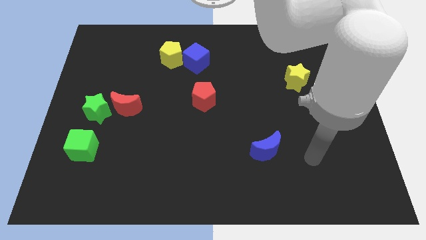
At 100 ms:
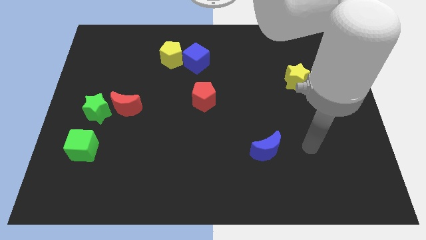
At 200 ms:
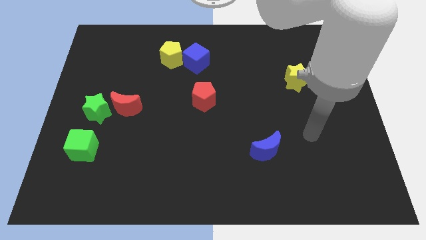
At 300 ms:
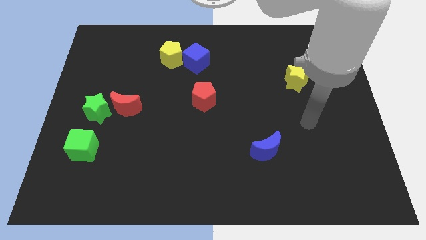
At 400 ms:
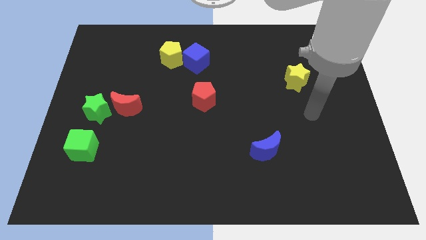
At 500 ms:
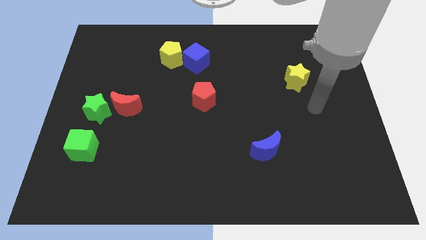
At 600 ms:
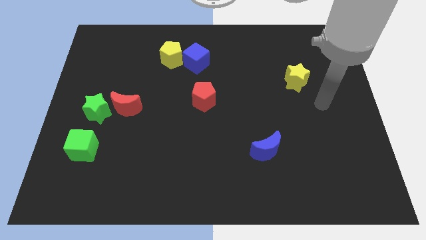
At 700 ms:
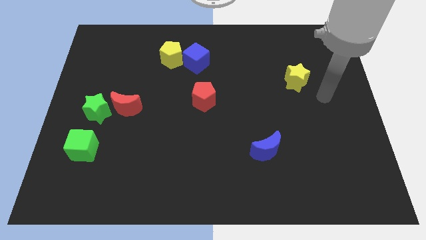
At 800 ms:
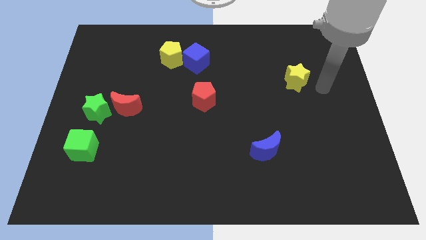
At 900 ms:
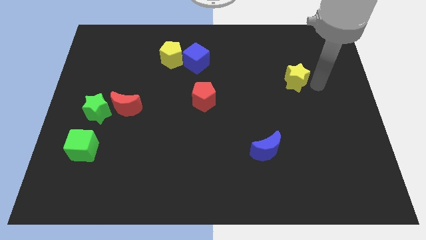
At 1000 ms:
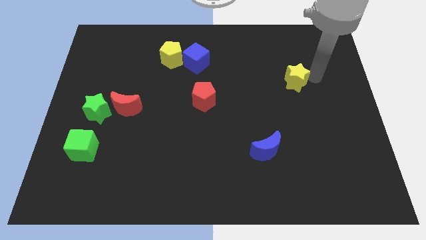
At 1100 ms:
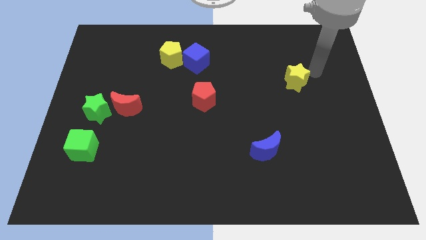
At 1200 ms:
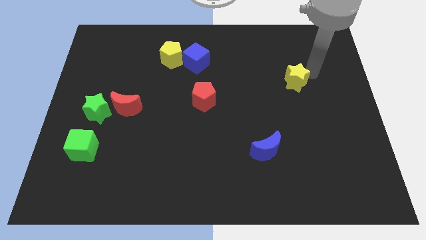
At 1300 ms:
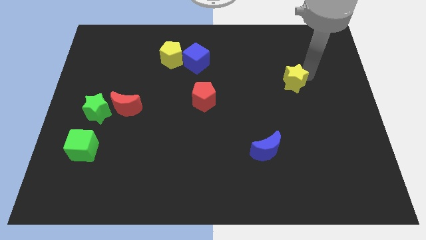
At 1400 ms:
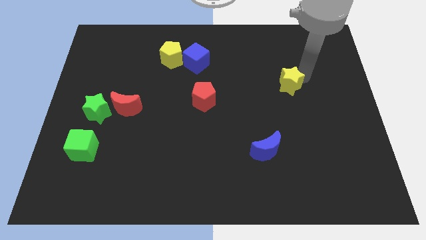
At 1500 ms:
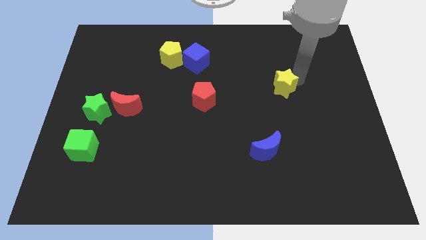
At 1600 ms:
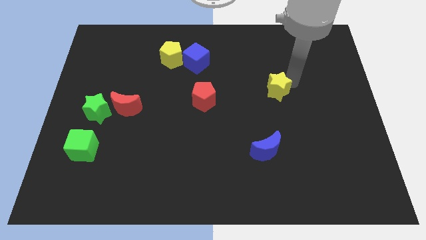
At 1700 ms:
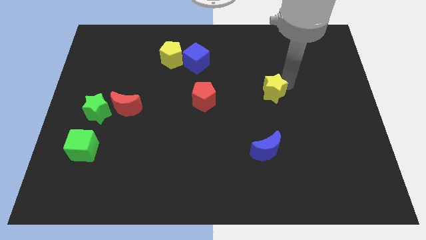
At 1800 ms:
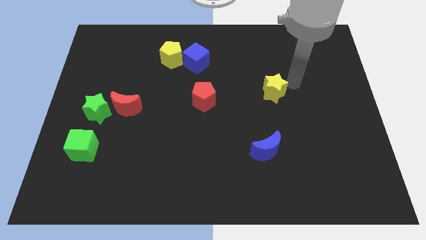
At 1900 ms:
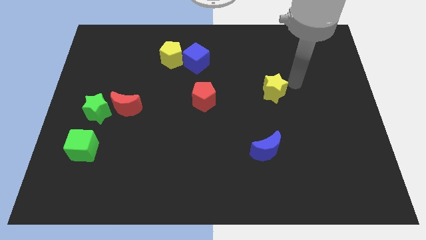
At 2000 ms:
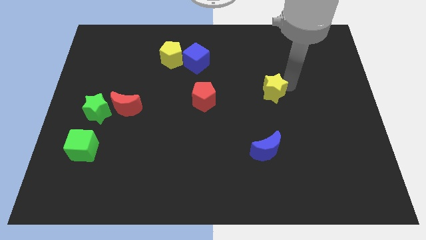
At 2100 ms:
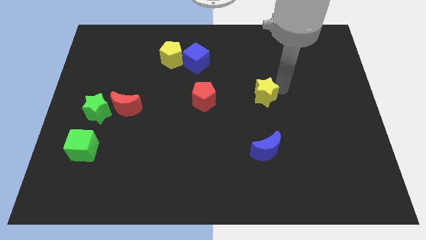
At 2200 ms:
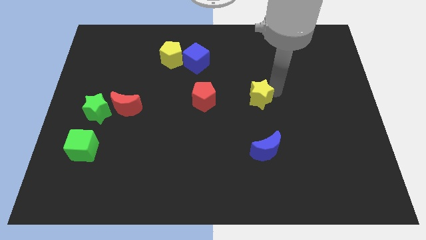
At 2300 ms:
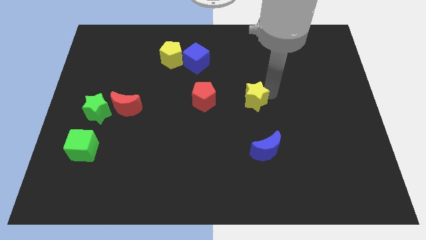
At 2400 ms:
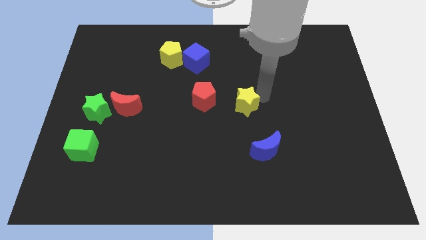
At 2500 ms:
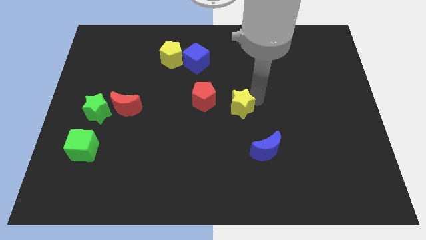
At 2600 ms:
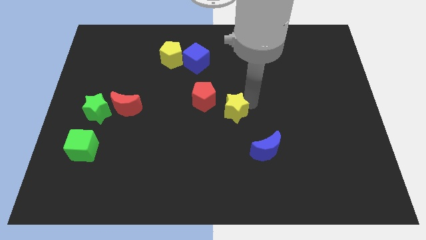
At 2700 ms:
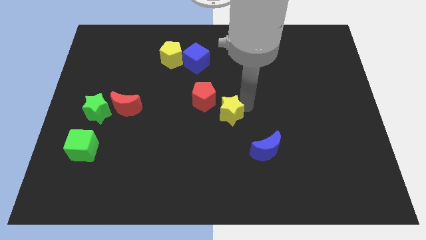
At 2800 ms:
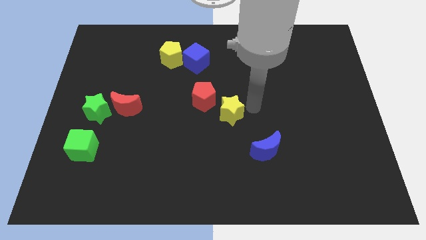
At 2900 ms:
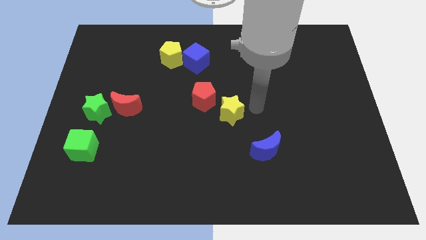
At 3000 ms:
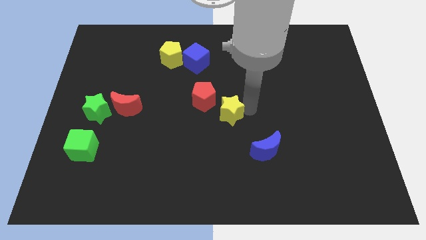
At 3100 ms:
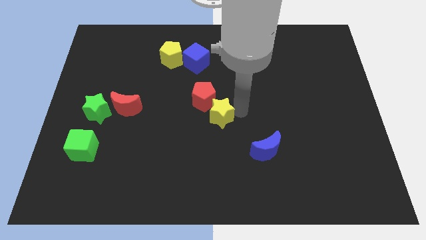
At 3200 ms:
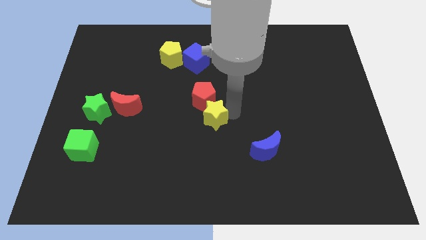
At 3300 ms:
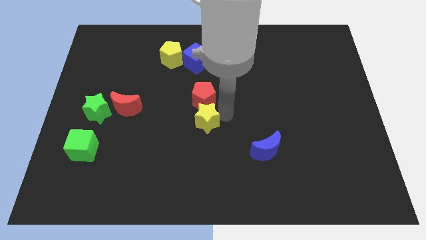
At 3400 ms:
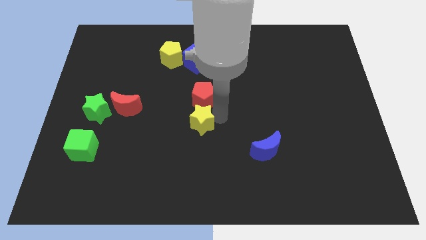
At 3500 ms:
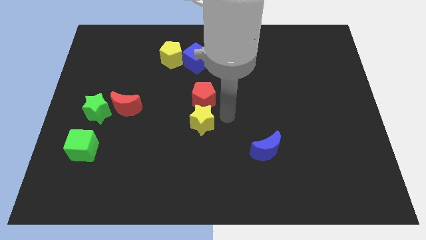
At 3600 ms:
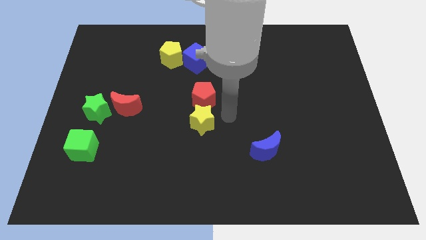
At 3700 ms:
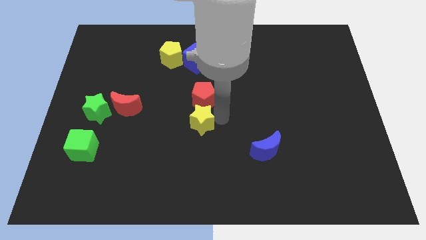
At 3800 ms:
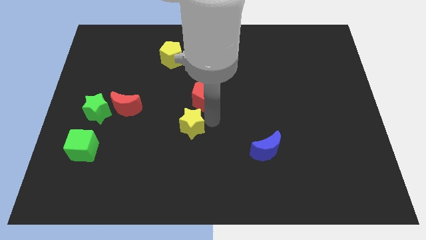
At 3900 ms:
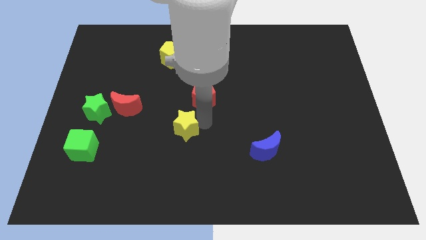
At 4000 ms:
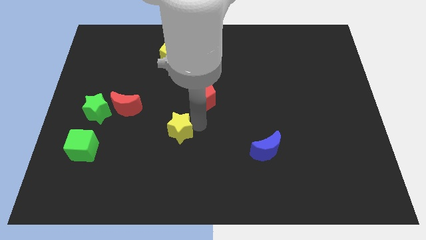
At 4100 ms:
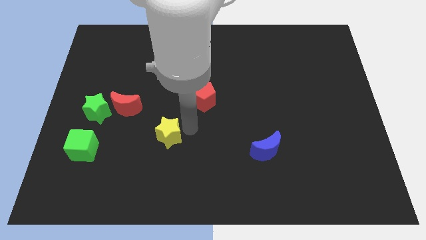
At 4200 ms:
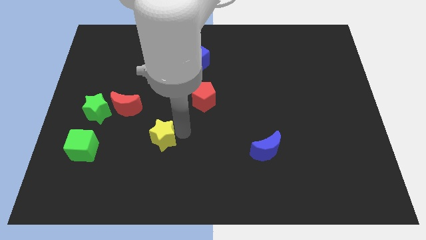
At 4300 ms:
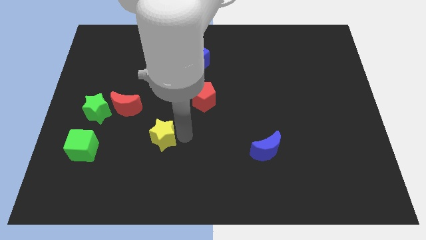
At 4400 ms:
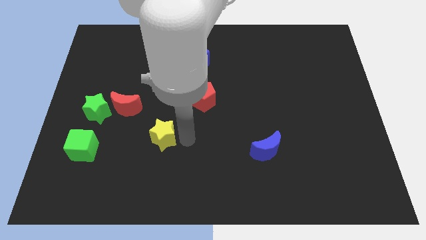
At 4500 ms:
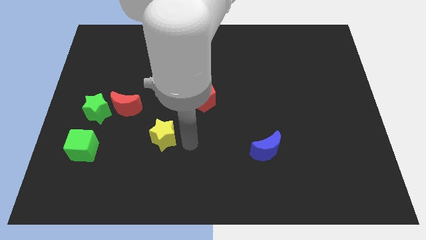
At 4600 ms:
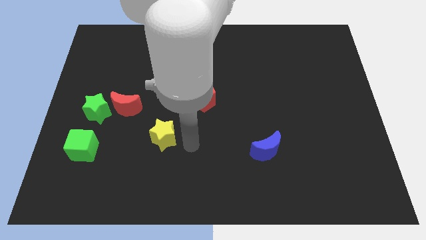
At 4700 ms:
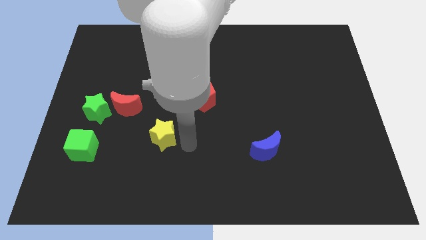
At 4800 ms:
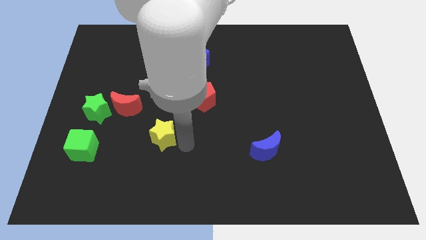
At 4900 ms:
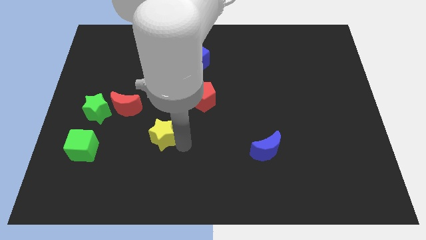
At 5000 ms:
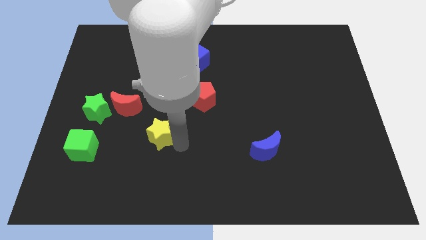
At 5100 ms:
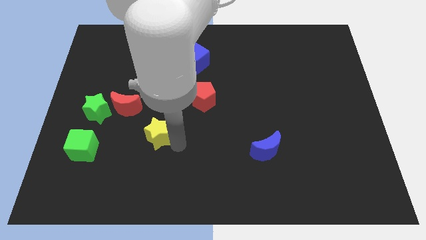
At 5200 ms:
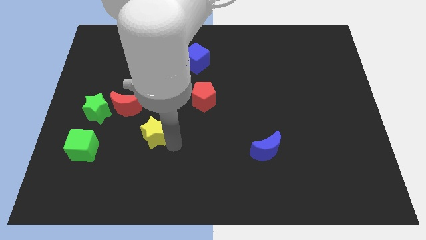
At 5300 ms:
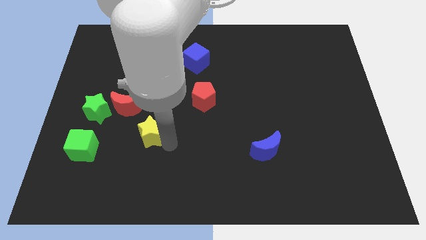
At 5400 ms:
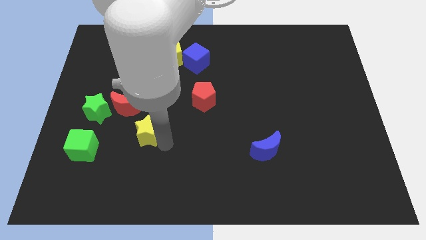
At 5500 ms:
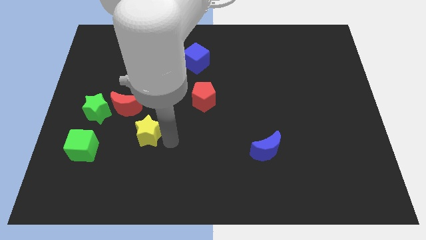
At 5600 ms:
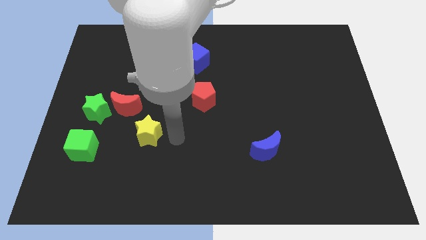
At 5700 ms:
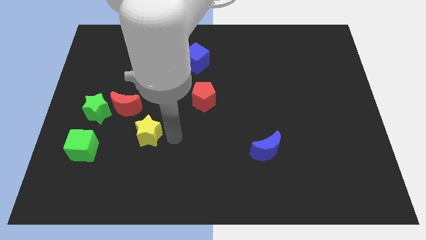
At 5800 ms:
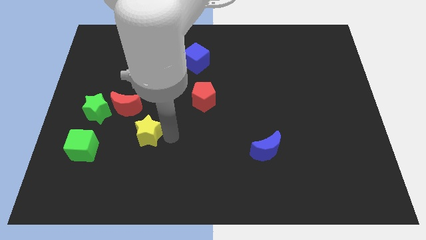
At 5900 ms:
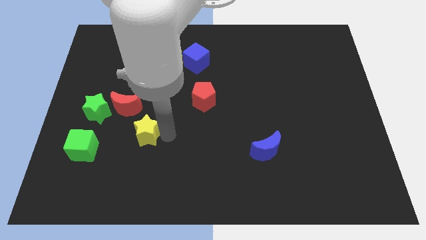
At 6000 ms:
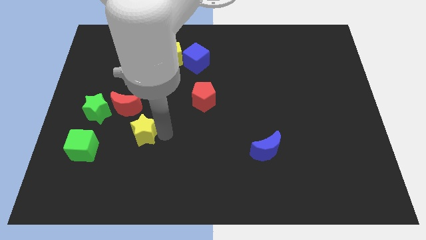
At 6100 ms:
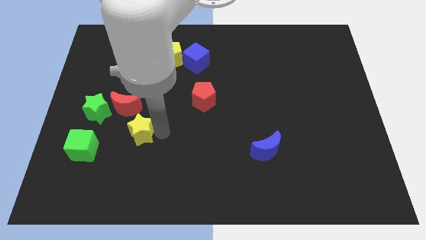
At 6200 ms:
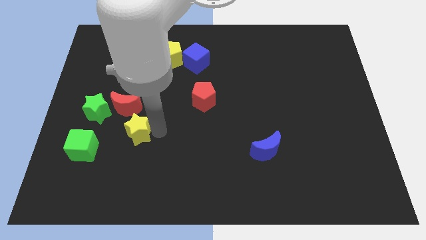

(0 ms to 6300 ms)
push the yellow star to the bottom right of the green star

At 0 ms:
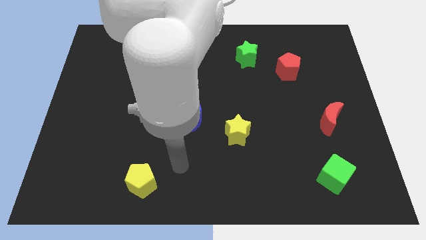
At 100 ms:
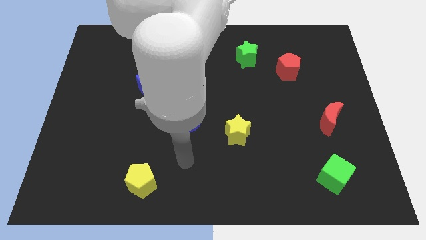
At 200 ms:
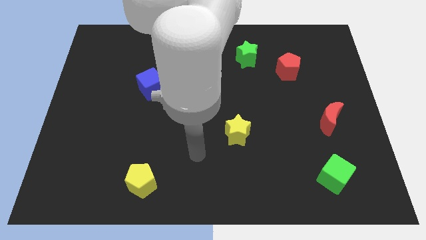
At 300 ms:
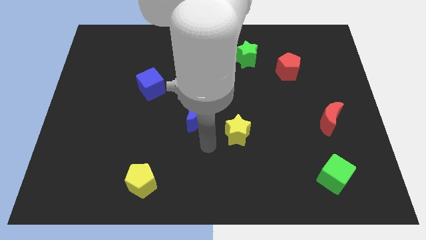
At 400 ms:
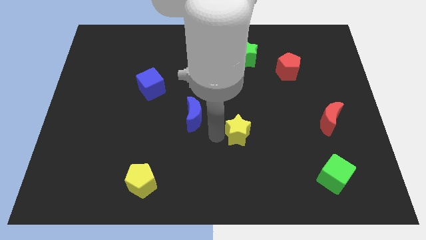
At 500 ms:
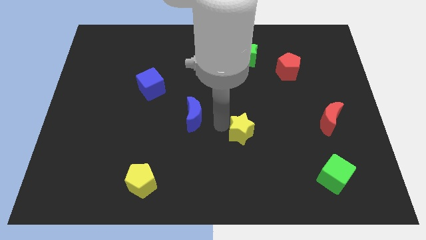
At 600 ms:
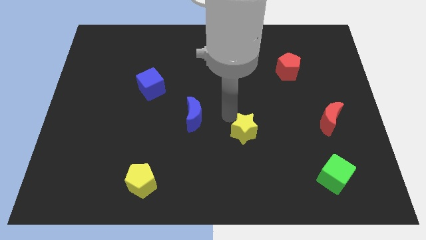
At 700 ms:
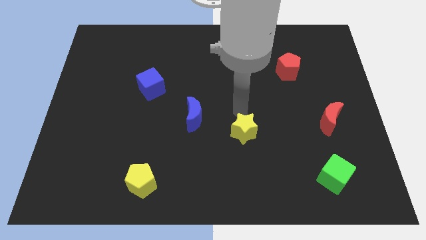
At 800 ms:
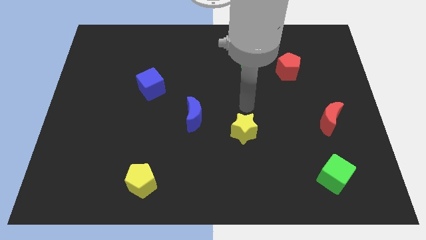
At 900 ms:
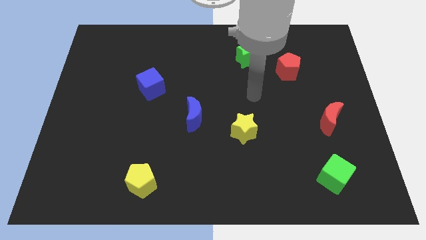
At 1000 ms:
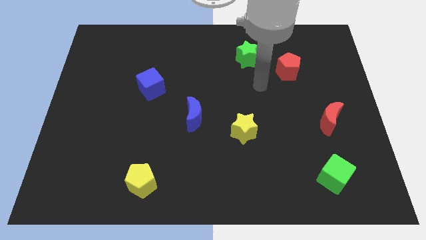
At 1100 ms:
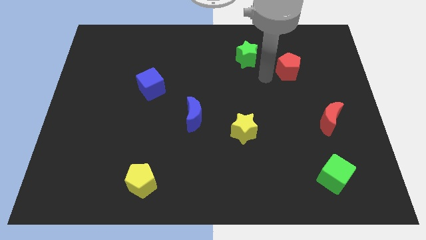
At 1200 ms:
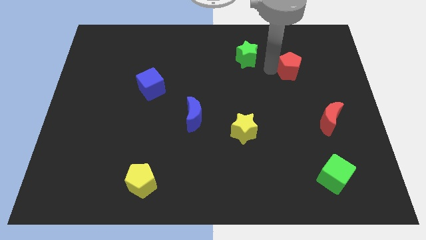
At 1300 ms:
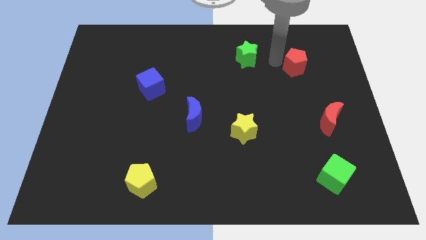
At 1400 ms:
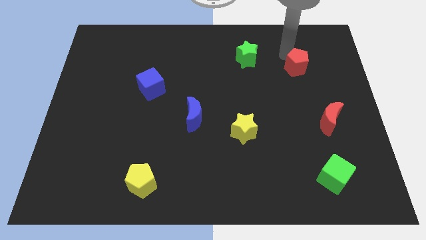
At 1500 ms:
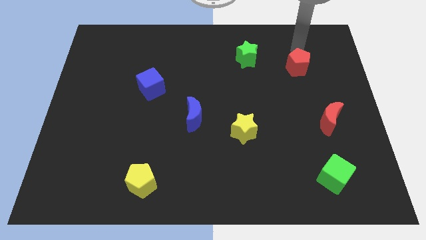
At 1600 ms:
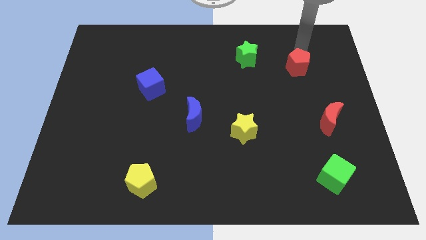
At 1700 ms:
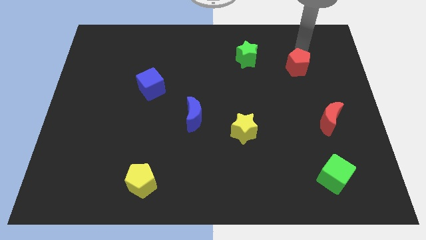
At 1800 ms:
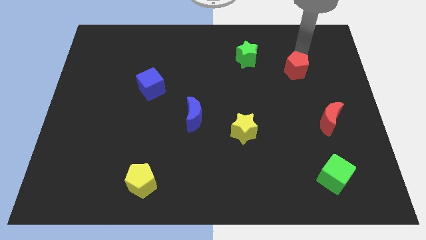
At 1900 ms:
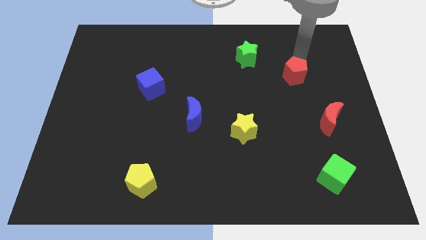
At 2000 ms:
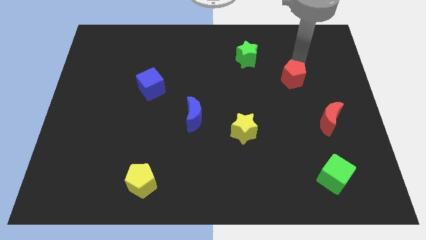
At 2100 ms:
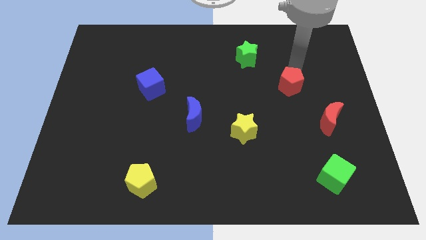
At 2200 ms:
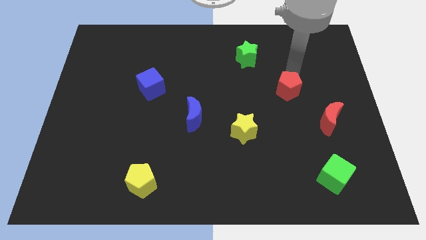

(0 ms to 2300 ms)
slide the red pentagon to the top left side of the red moon
